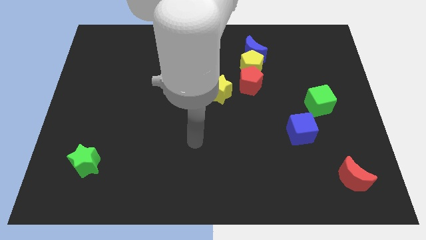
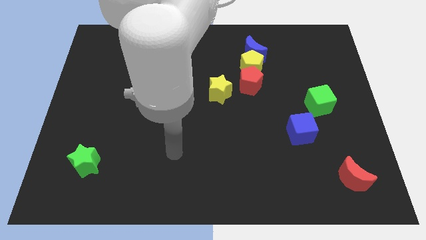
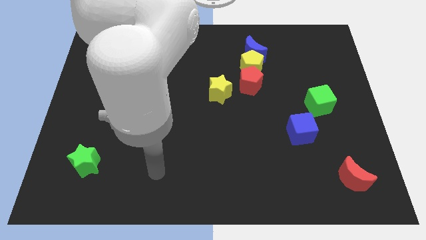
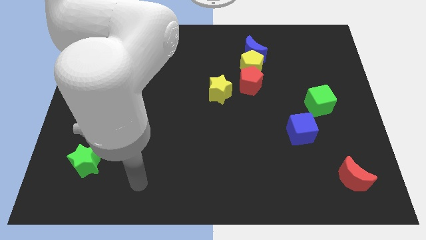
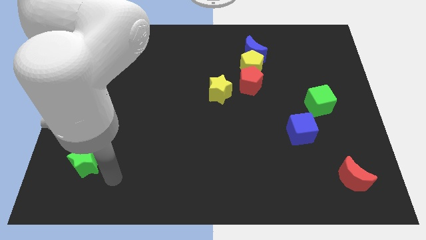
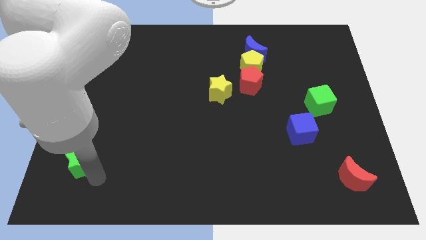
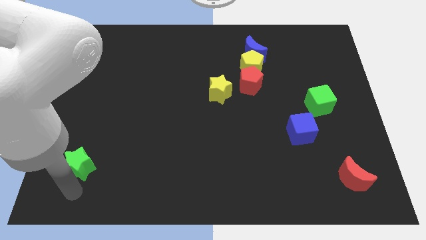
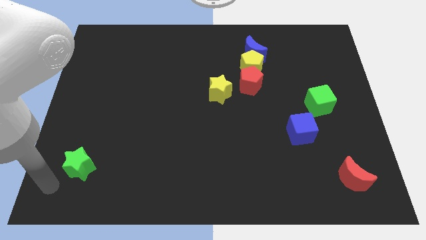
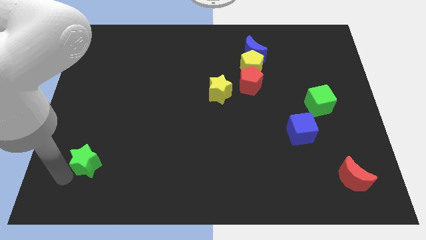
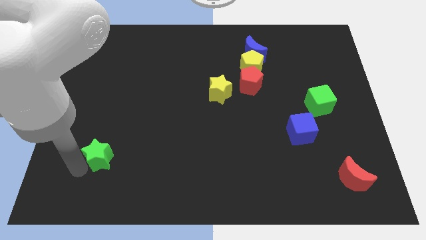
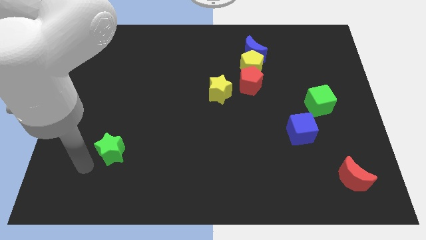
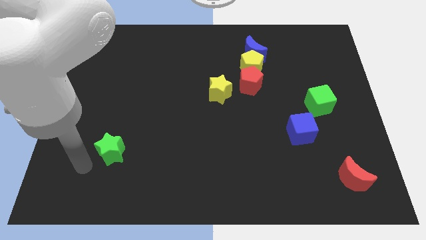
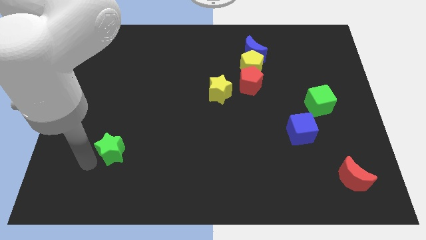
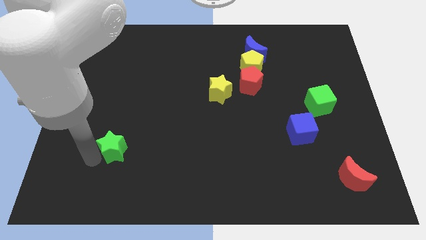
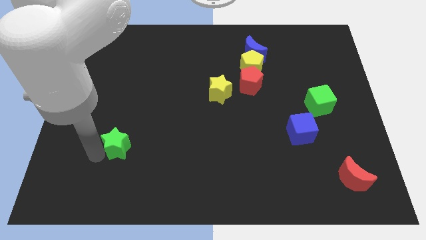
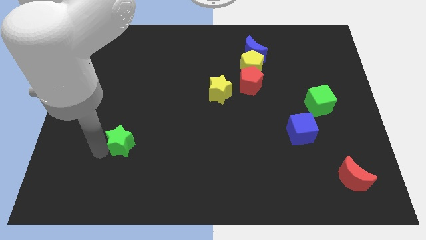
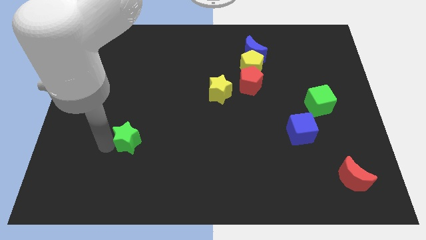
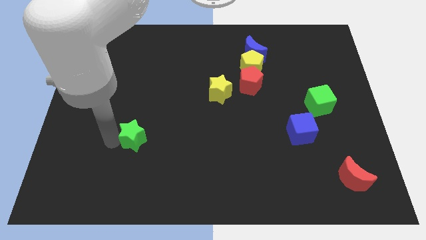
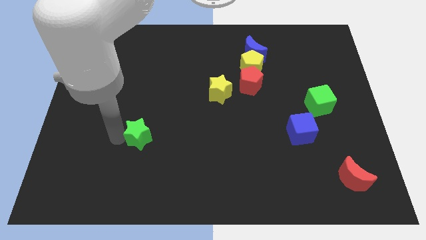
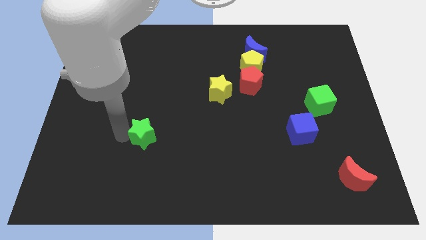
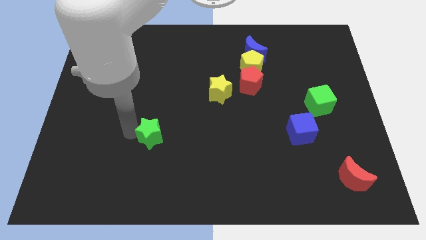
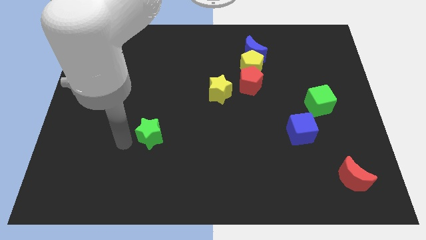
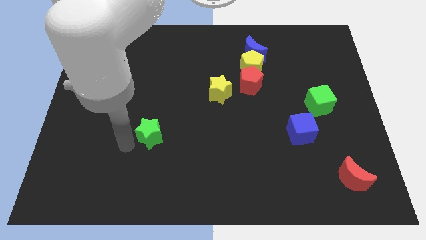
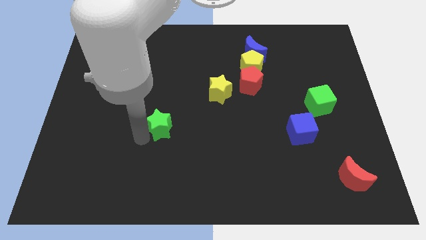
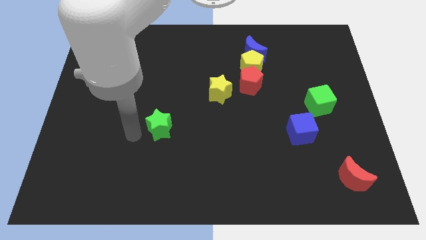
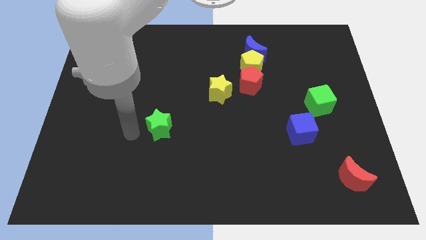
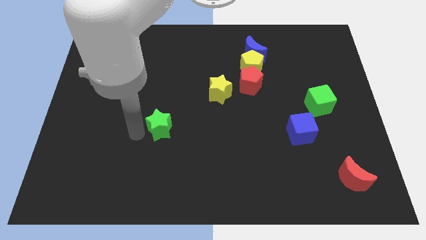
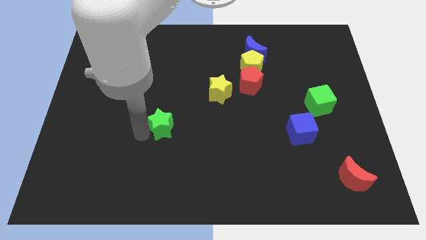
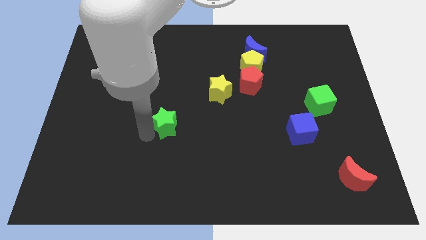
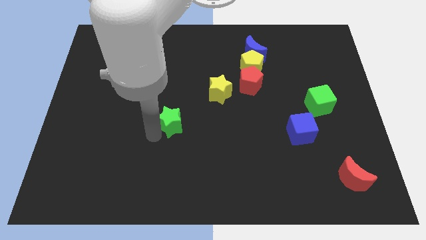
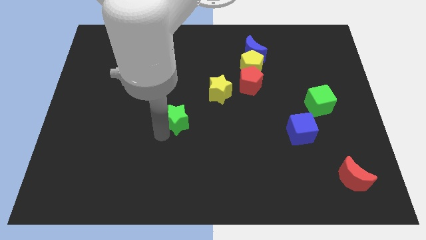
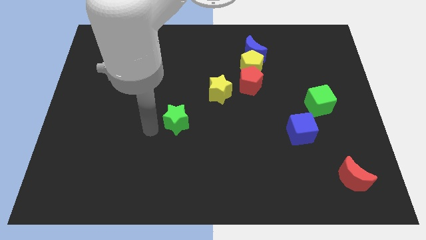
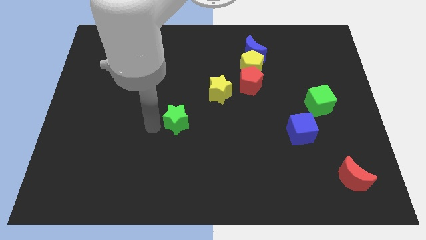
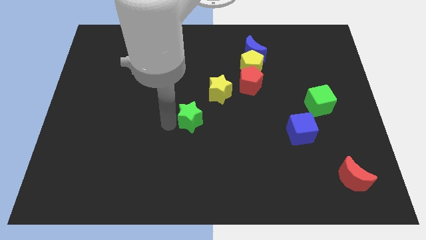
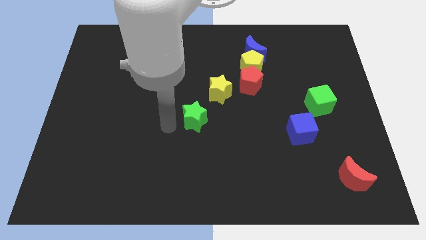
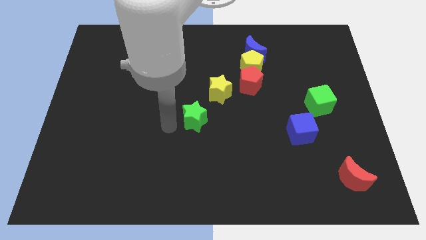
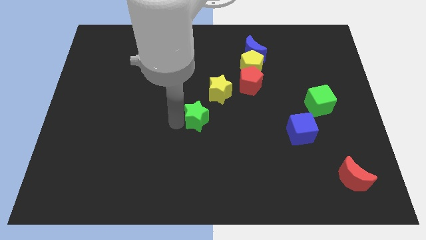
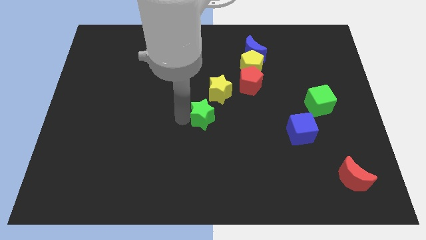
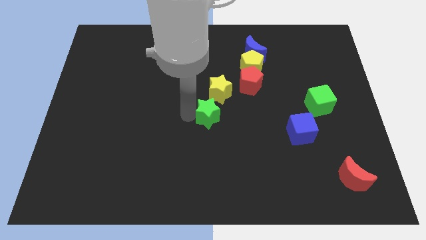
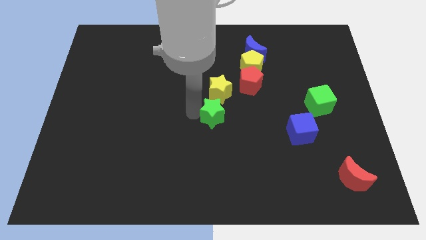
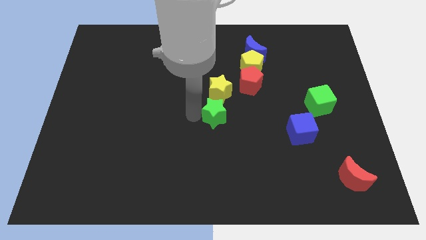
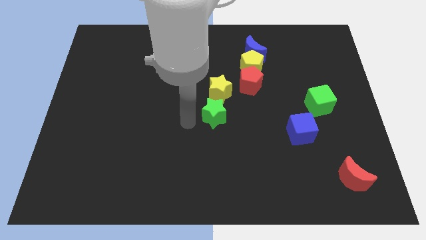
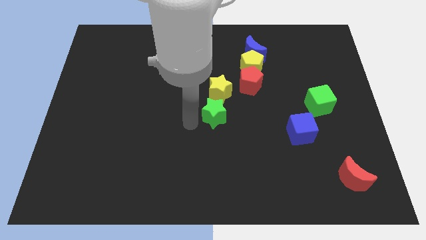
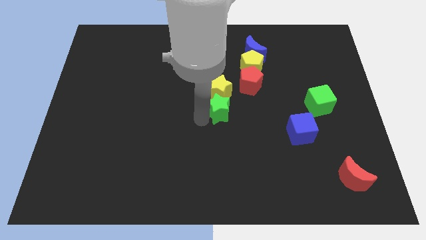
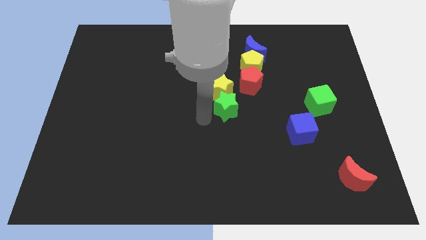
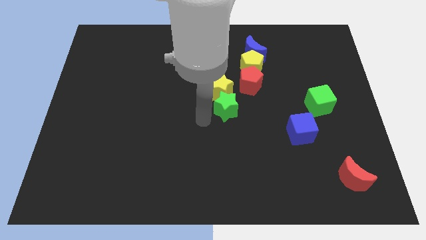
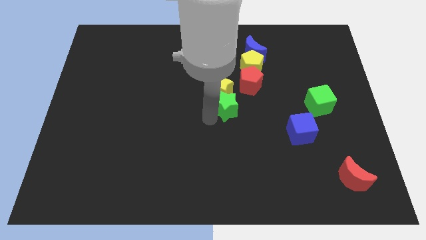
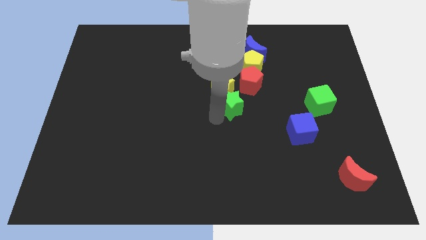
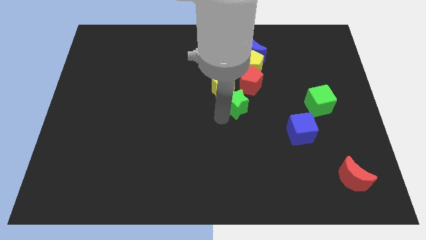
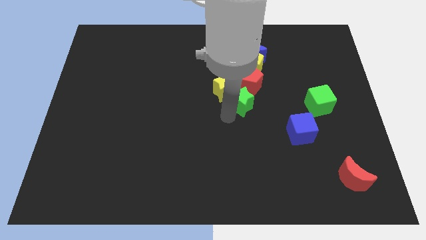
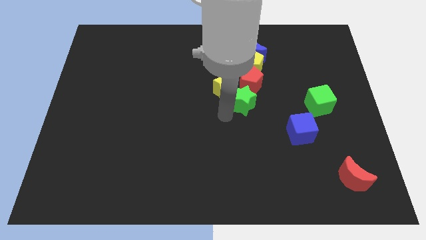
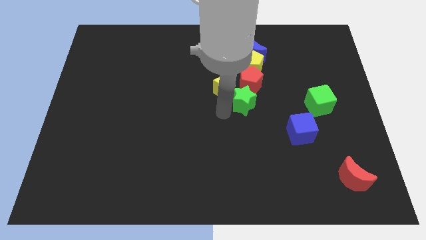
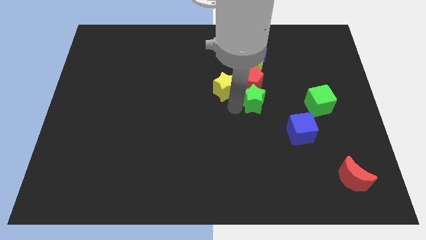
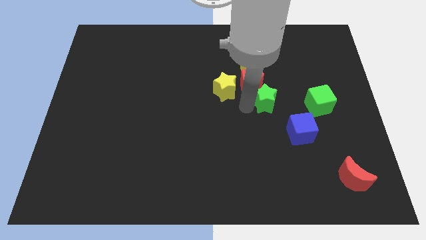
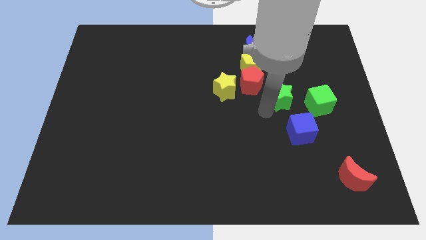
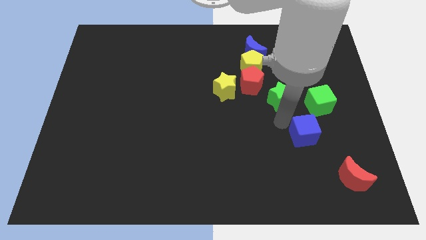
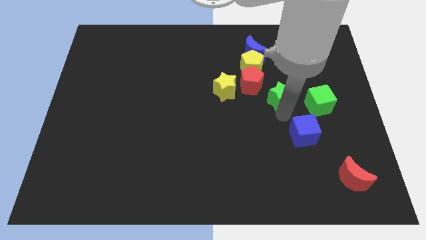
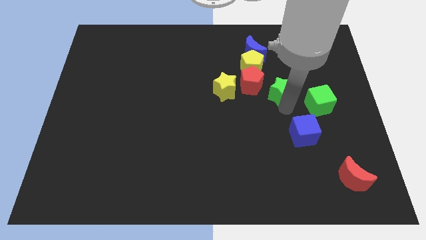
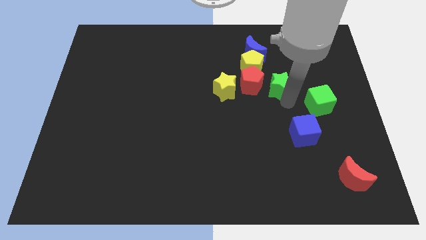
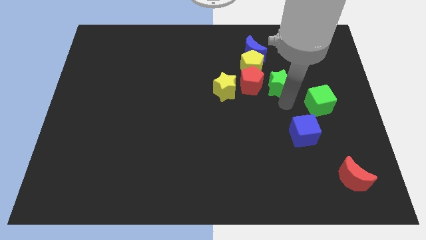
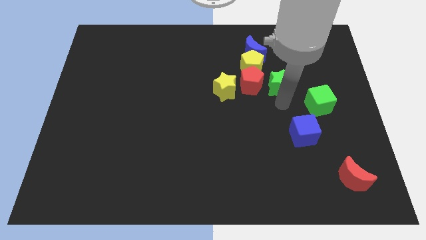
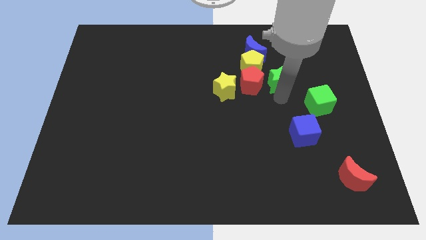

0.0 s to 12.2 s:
put the green star to the bottom right of the blue moon

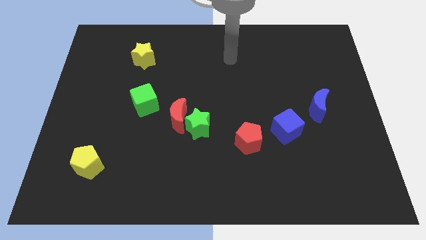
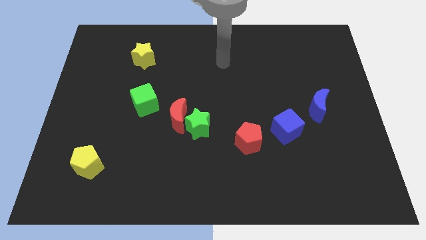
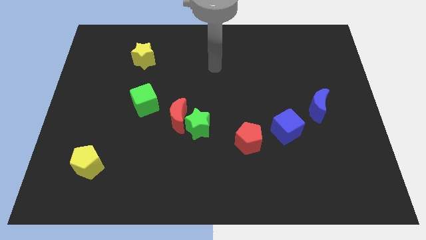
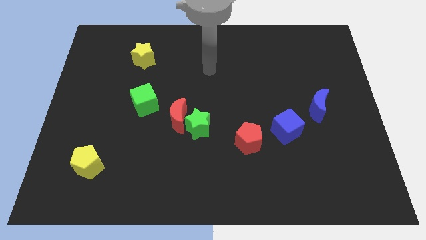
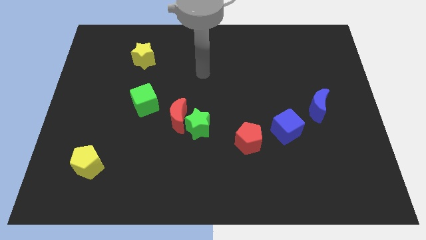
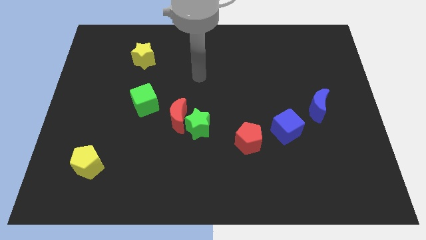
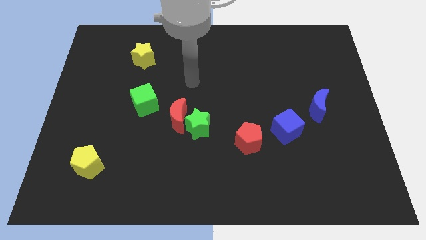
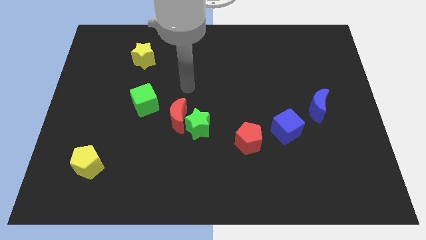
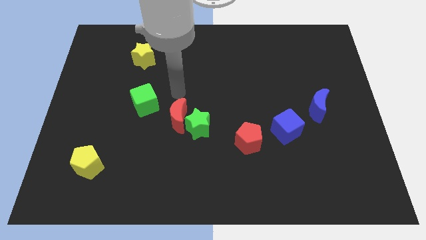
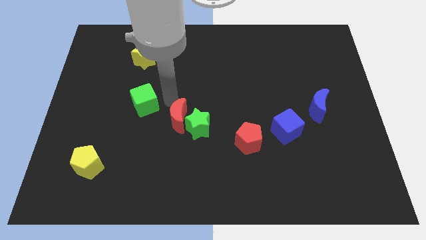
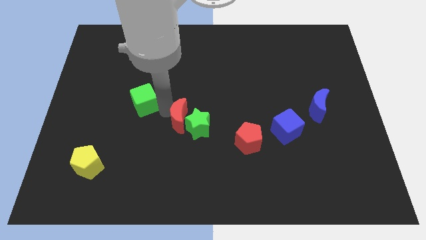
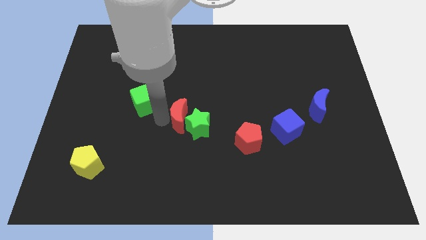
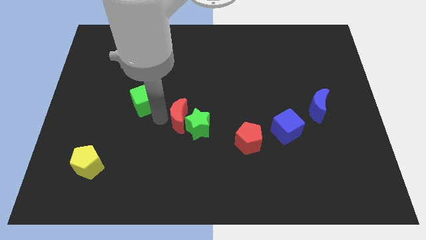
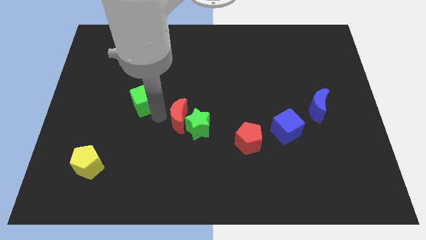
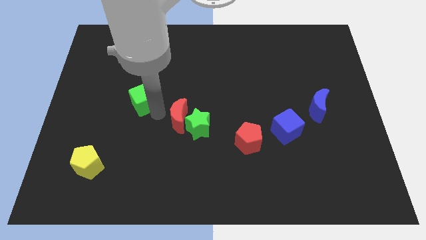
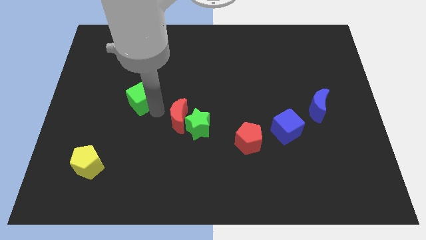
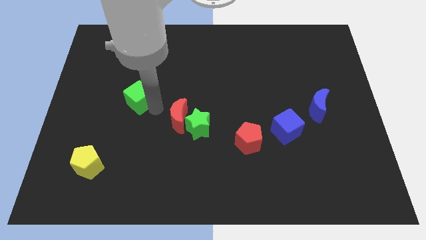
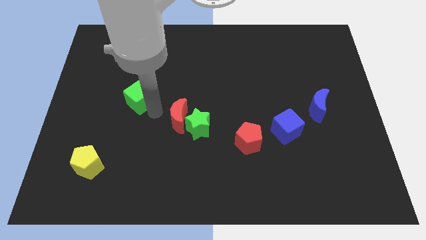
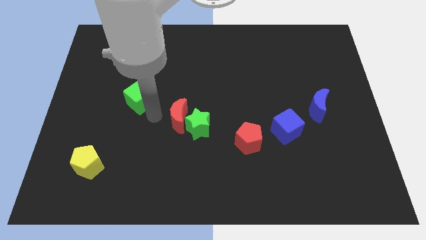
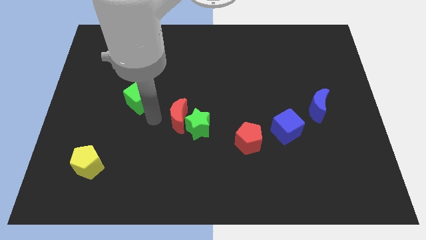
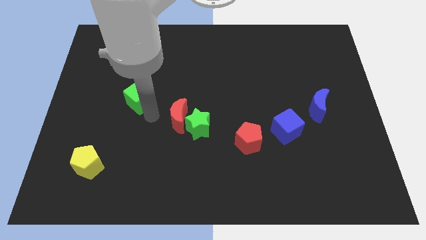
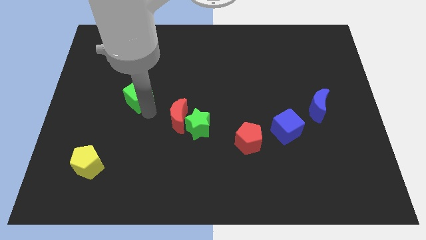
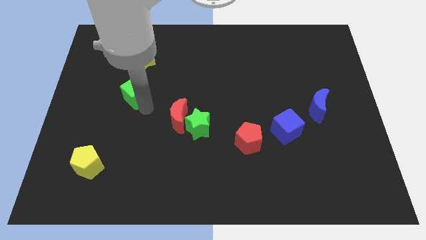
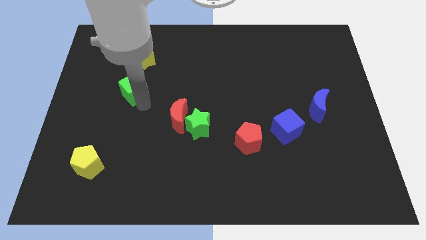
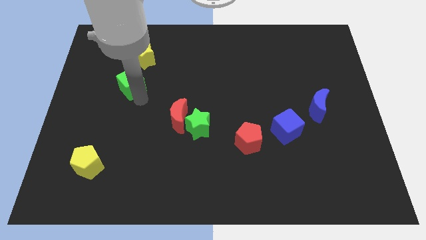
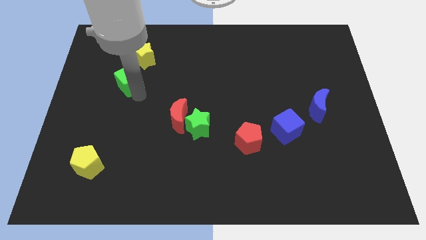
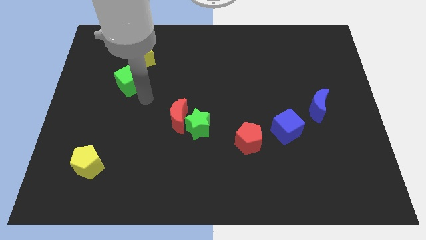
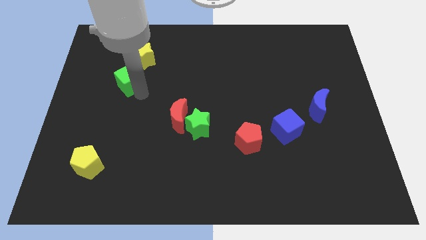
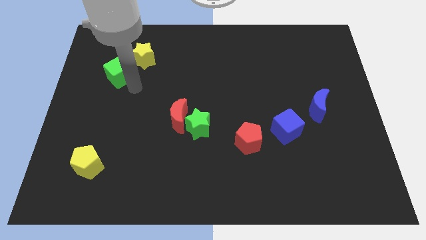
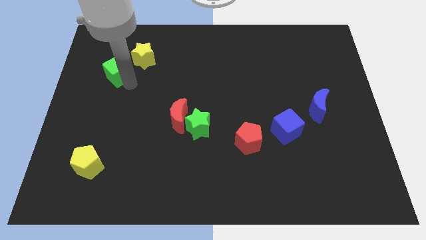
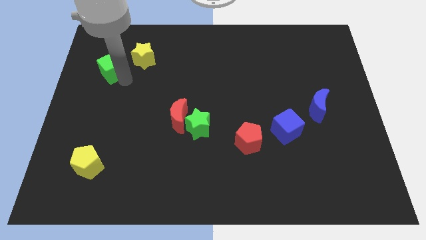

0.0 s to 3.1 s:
put the green cube left of the yellow star
